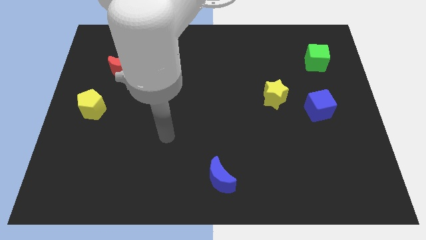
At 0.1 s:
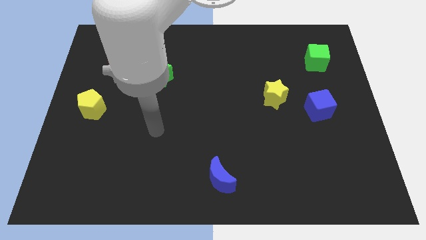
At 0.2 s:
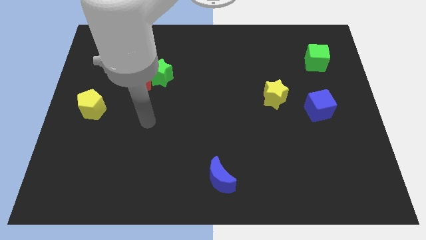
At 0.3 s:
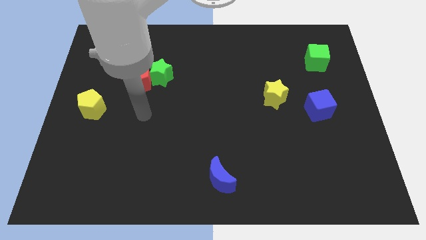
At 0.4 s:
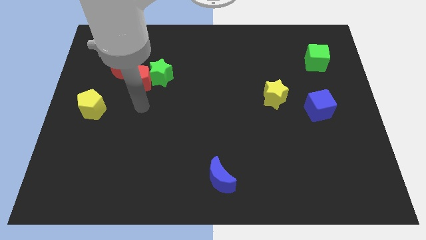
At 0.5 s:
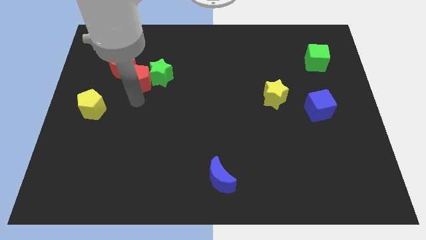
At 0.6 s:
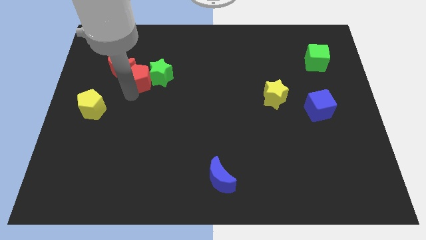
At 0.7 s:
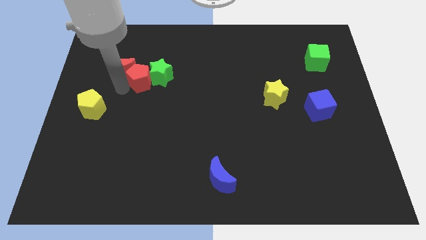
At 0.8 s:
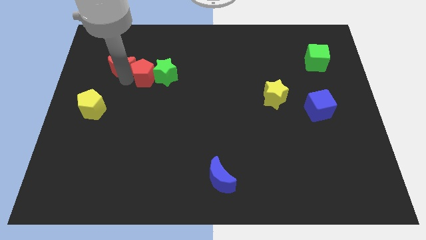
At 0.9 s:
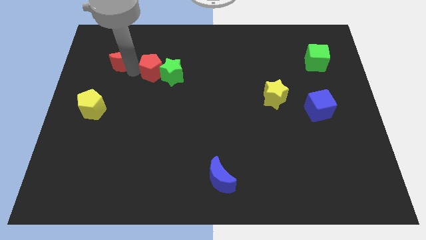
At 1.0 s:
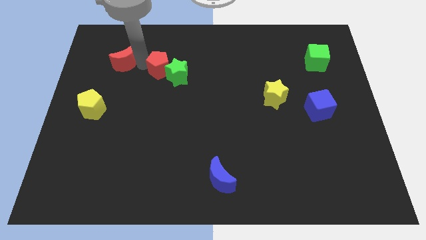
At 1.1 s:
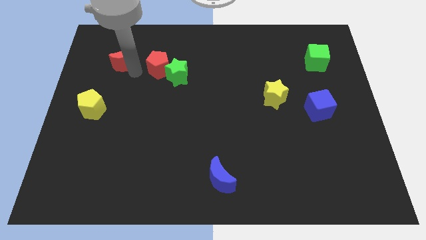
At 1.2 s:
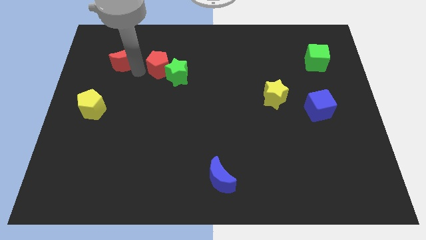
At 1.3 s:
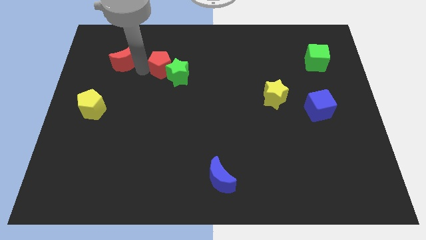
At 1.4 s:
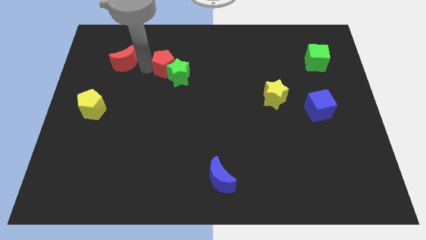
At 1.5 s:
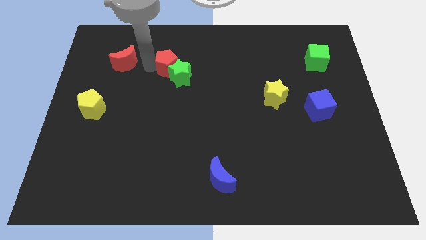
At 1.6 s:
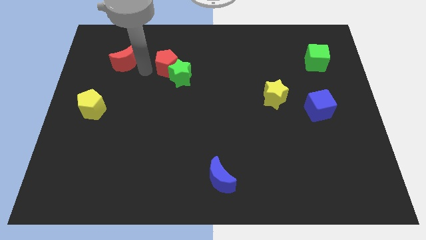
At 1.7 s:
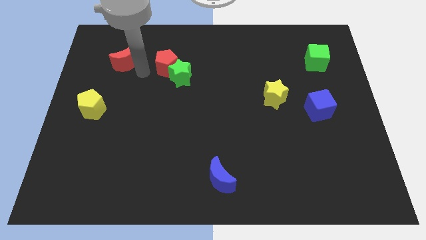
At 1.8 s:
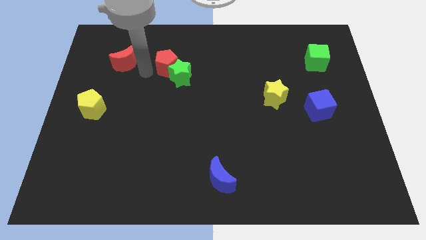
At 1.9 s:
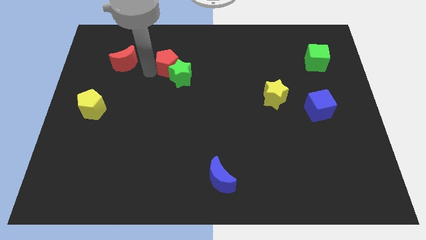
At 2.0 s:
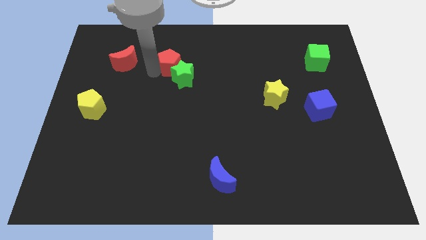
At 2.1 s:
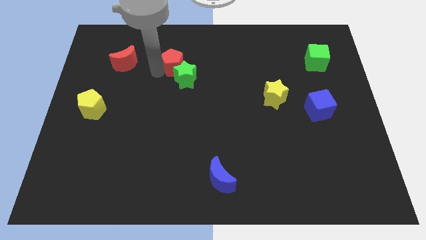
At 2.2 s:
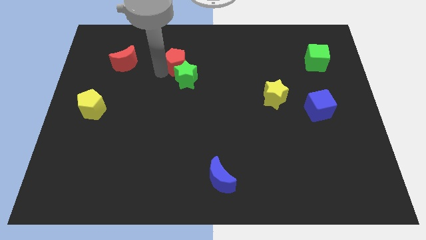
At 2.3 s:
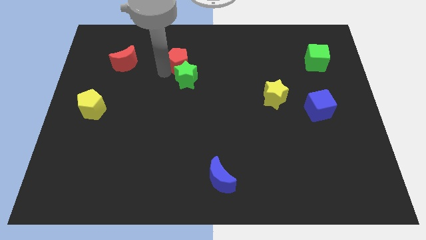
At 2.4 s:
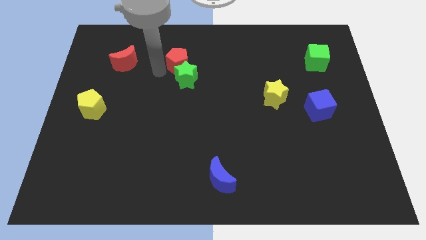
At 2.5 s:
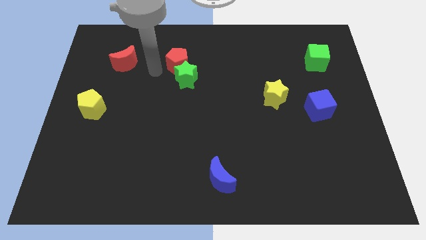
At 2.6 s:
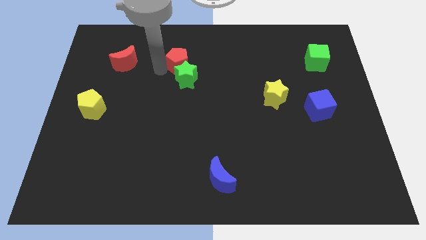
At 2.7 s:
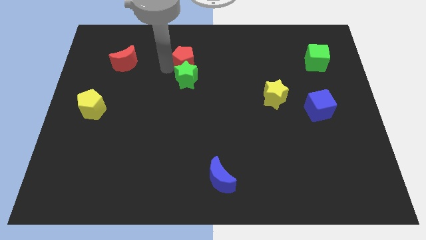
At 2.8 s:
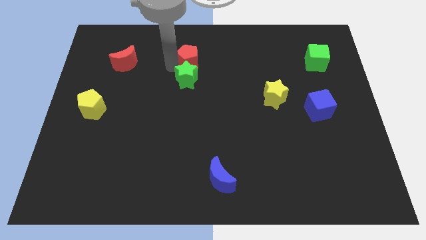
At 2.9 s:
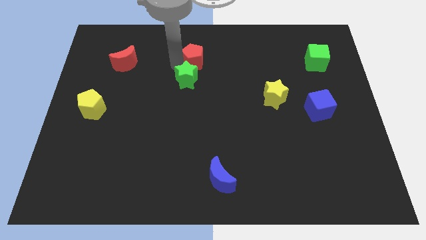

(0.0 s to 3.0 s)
pull the red pentagon apart from the green star and red moon

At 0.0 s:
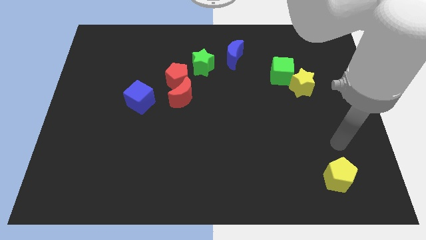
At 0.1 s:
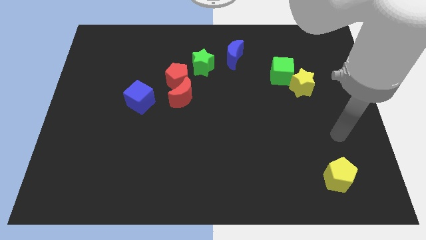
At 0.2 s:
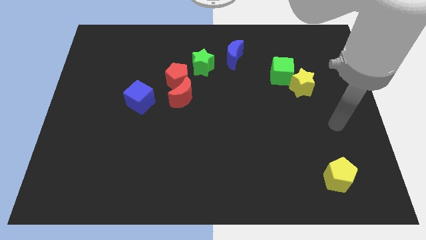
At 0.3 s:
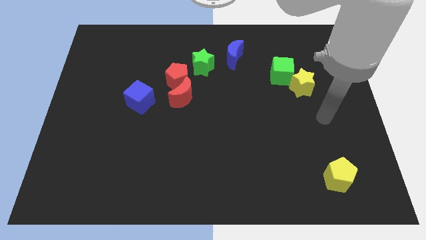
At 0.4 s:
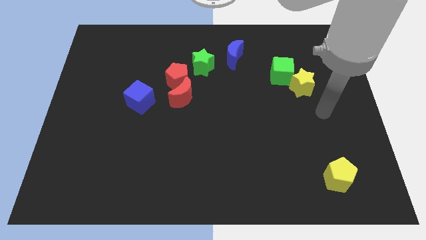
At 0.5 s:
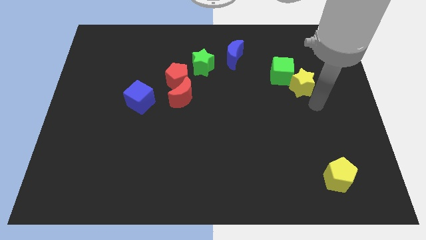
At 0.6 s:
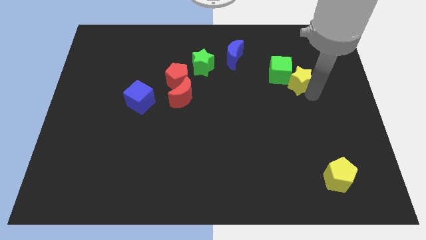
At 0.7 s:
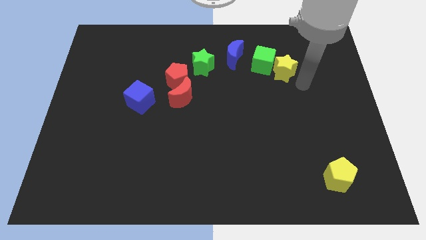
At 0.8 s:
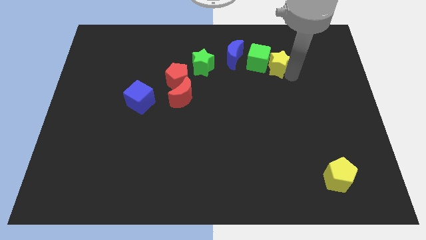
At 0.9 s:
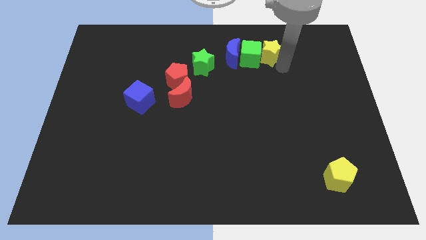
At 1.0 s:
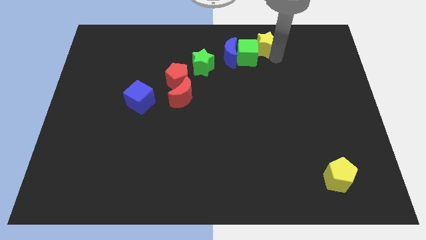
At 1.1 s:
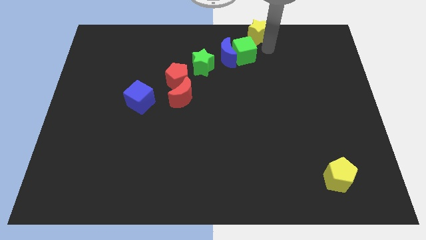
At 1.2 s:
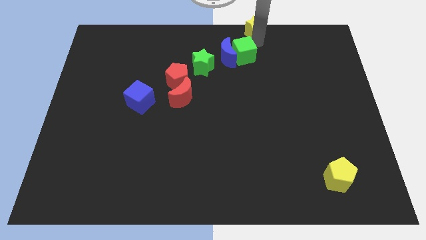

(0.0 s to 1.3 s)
pull the green cube apart from the yellow star

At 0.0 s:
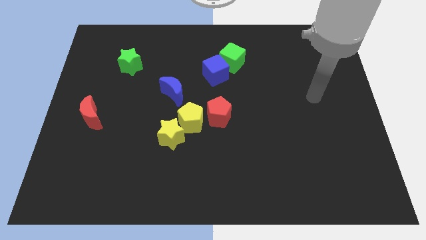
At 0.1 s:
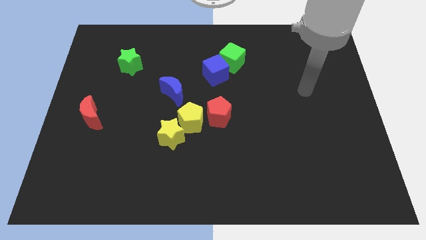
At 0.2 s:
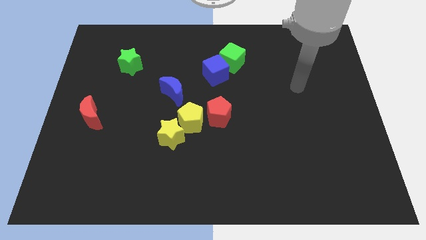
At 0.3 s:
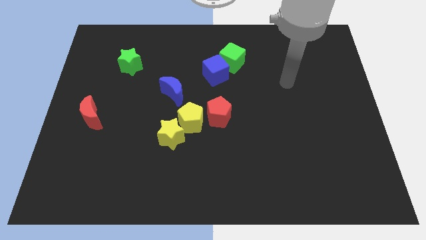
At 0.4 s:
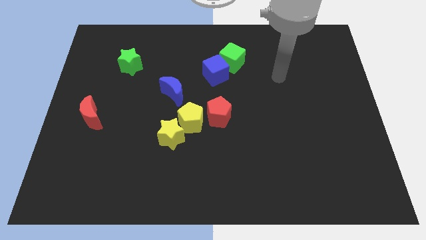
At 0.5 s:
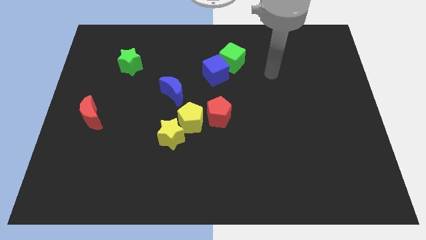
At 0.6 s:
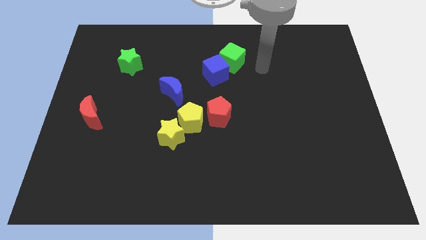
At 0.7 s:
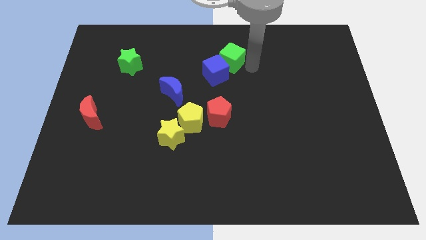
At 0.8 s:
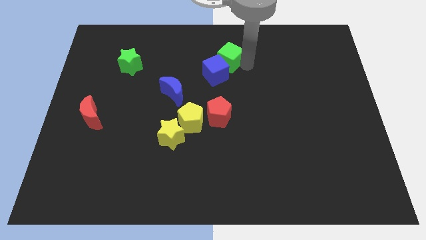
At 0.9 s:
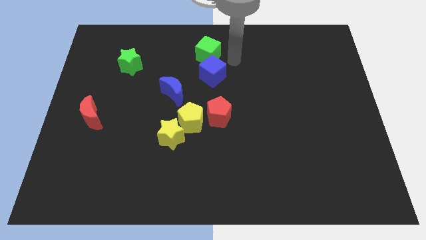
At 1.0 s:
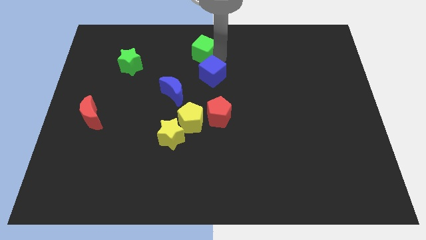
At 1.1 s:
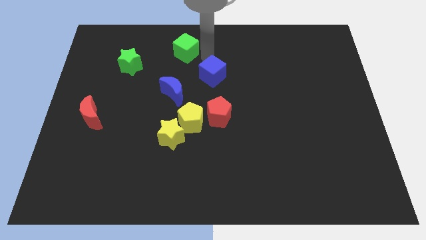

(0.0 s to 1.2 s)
move the blue cube away from the green cube

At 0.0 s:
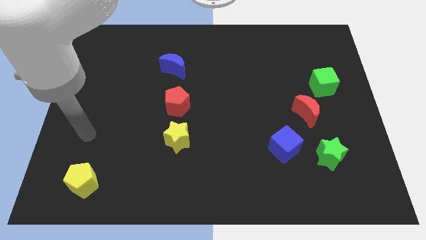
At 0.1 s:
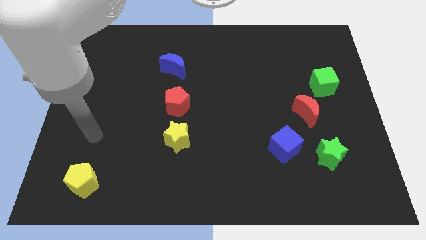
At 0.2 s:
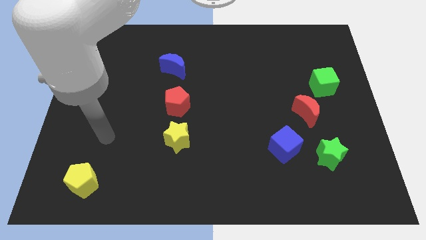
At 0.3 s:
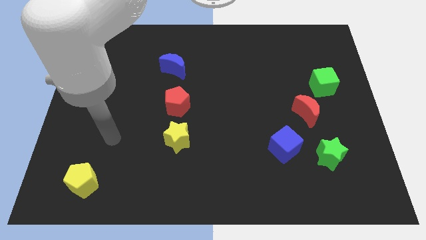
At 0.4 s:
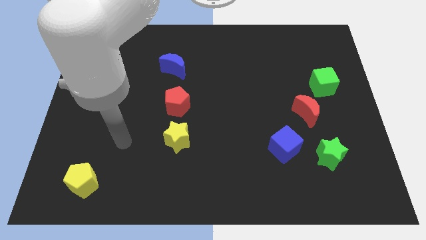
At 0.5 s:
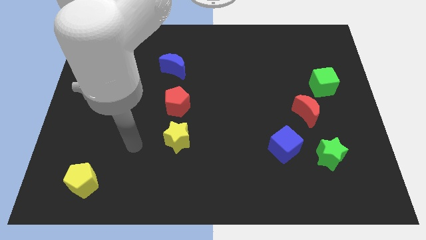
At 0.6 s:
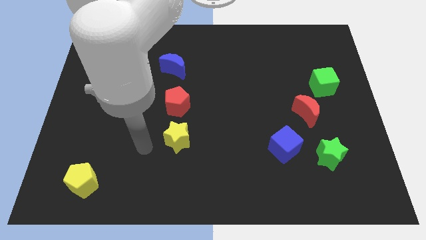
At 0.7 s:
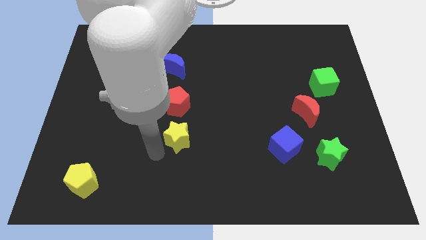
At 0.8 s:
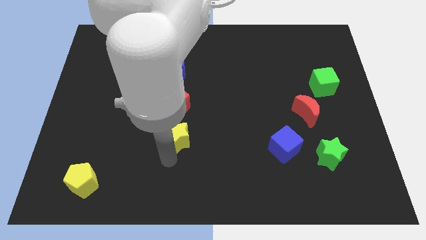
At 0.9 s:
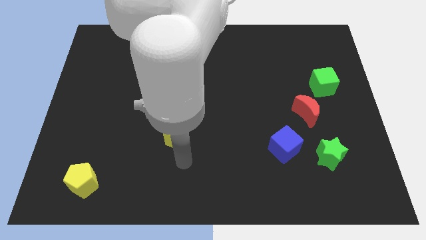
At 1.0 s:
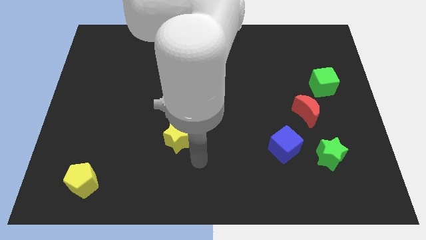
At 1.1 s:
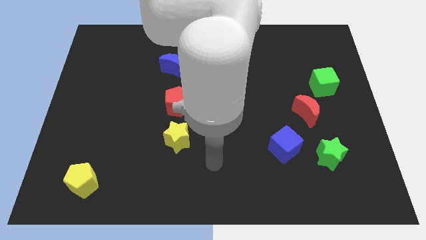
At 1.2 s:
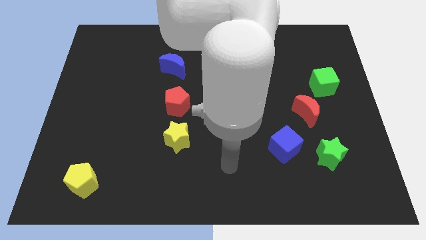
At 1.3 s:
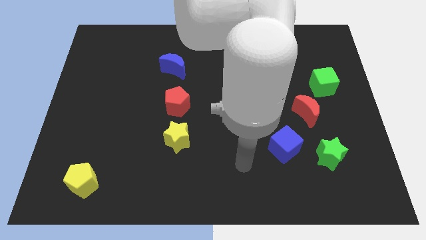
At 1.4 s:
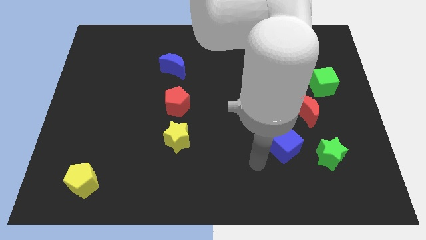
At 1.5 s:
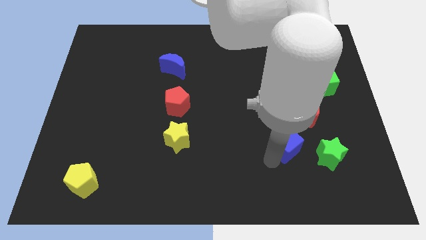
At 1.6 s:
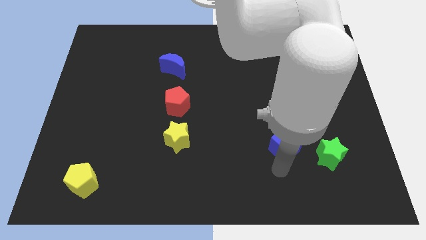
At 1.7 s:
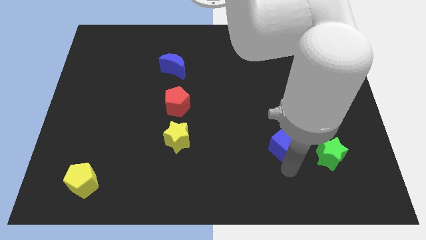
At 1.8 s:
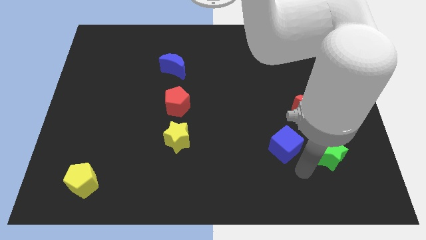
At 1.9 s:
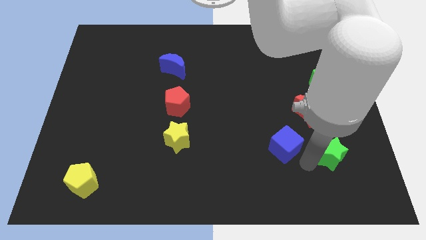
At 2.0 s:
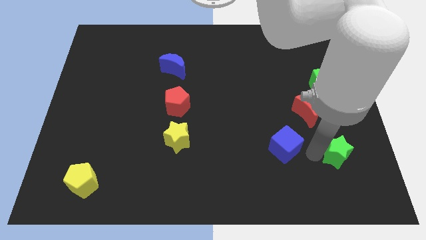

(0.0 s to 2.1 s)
separate the blue cube from the green star

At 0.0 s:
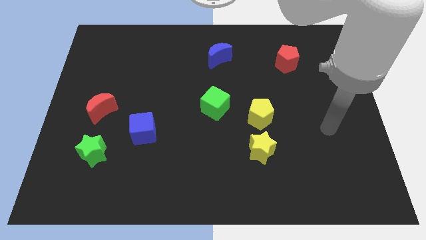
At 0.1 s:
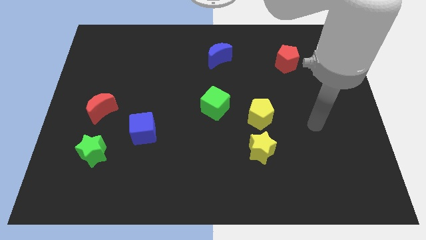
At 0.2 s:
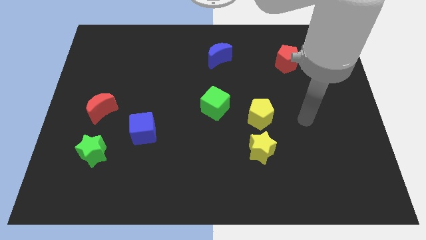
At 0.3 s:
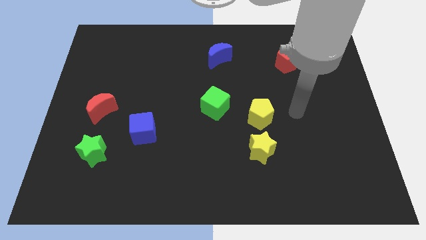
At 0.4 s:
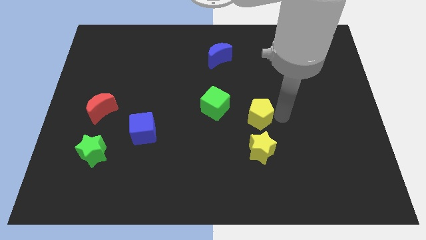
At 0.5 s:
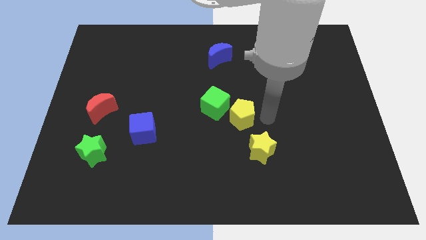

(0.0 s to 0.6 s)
separate the yellow star from the yellow pentagon

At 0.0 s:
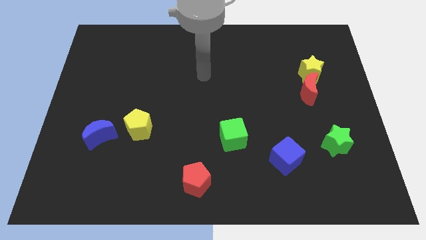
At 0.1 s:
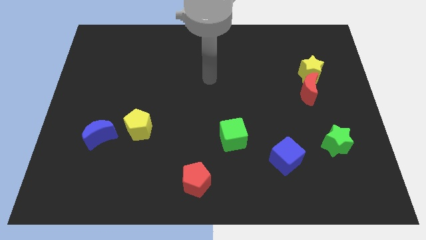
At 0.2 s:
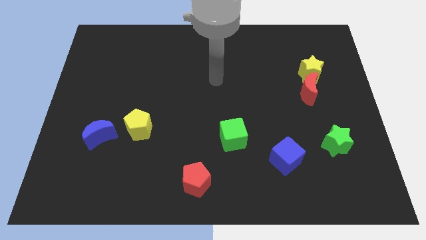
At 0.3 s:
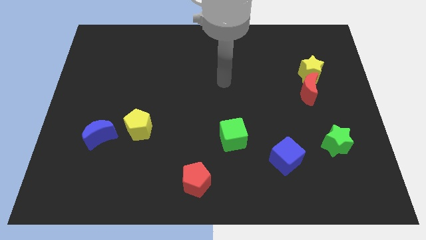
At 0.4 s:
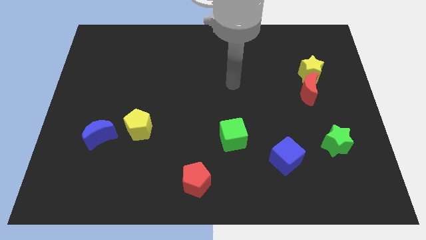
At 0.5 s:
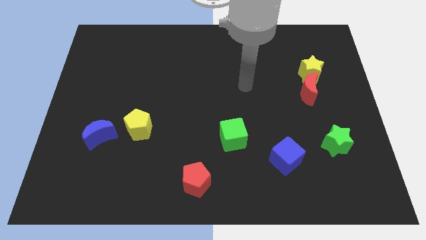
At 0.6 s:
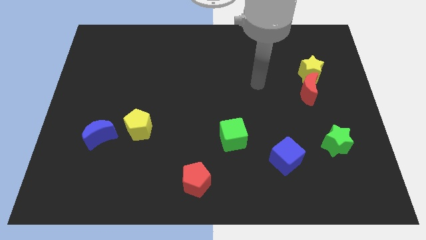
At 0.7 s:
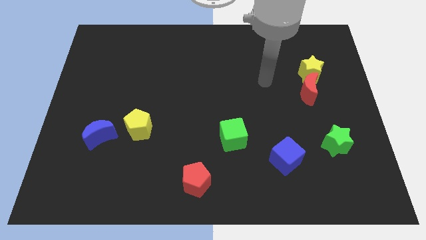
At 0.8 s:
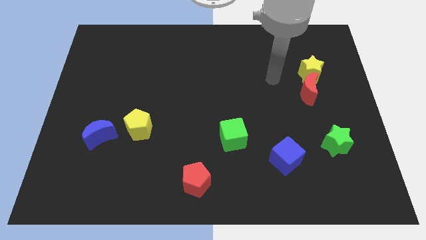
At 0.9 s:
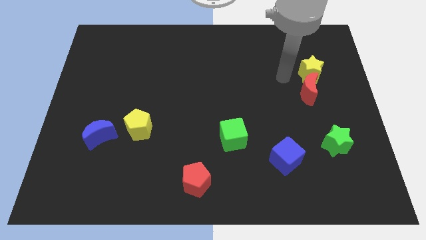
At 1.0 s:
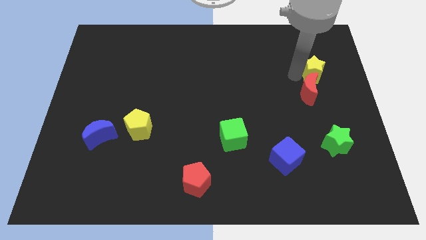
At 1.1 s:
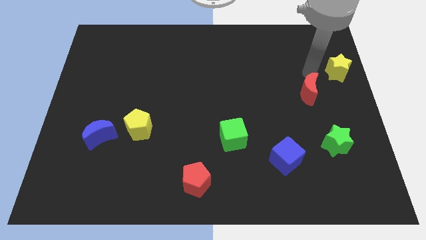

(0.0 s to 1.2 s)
move the red moon away from the yellow star
